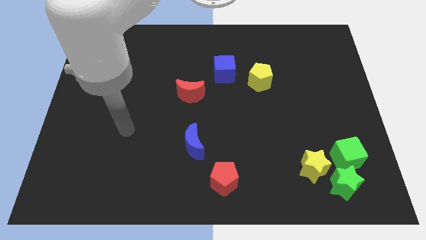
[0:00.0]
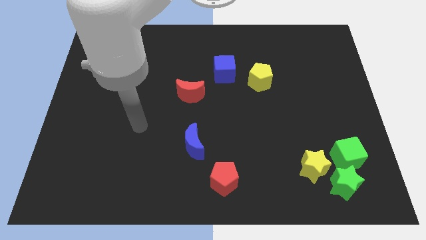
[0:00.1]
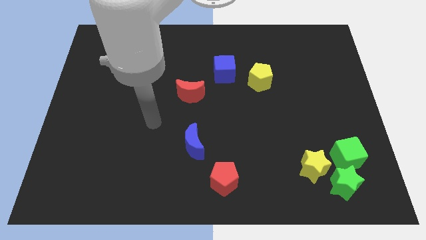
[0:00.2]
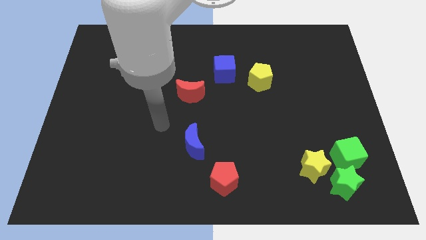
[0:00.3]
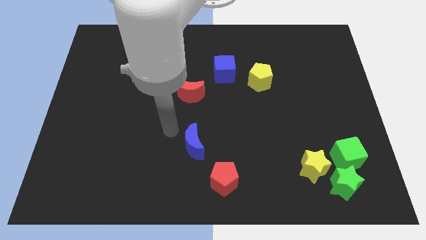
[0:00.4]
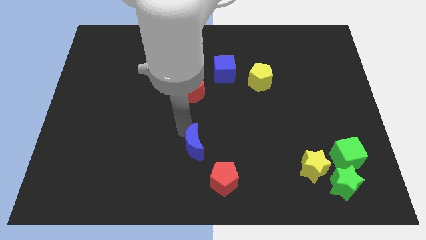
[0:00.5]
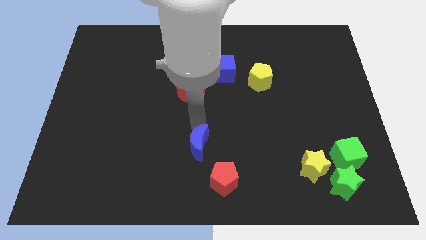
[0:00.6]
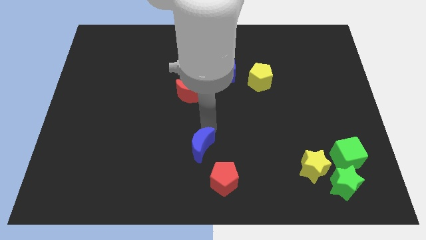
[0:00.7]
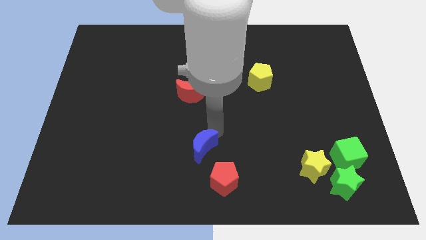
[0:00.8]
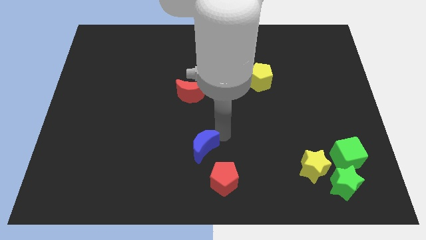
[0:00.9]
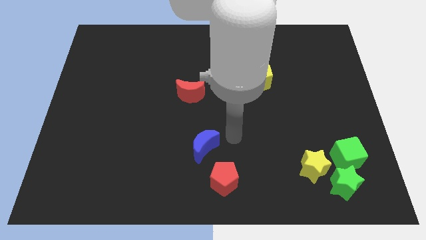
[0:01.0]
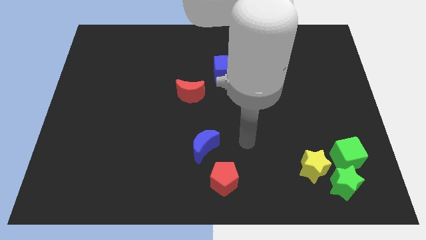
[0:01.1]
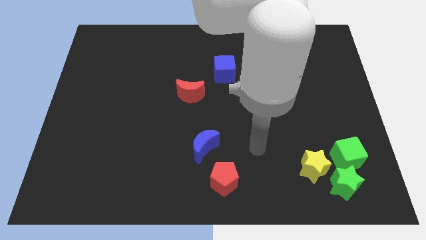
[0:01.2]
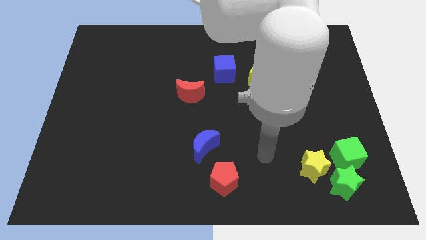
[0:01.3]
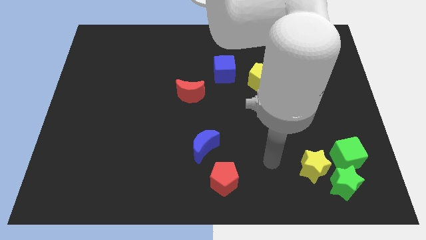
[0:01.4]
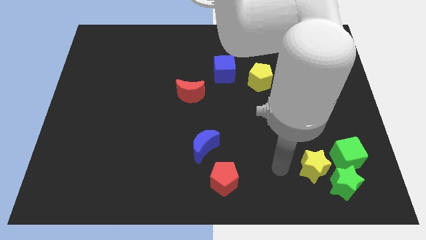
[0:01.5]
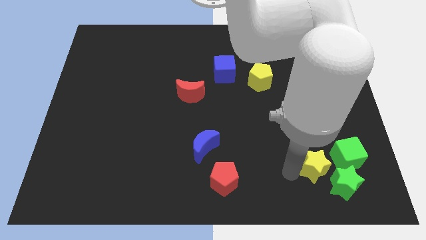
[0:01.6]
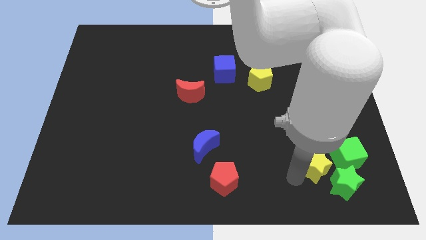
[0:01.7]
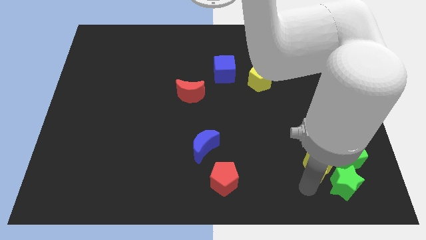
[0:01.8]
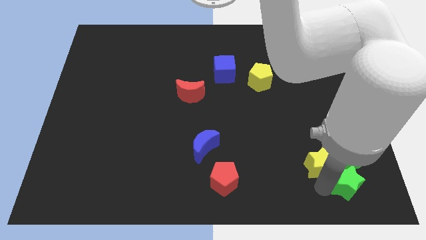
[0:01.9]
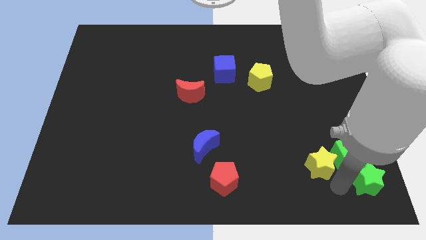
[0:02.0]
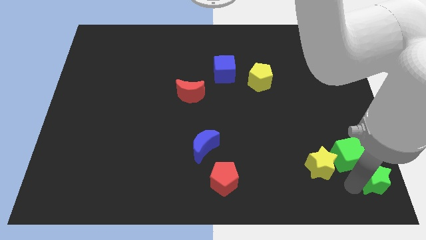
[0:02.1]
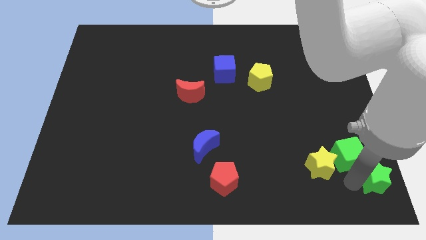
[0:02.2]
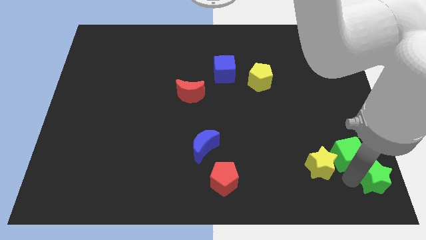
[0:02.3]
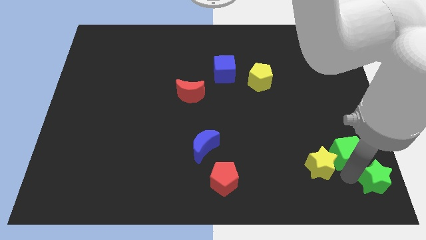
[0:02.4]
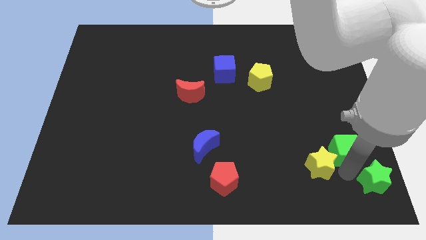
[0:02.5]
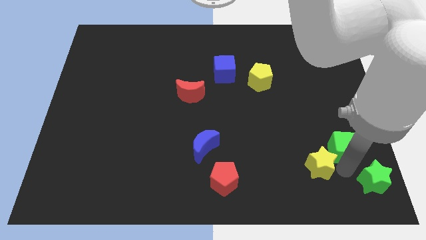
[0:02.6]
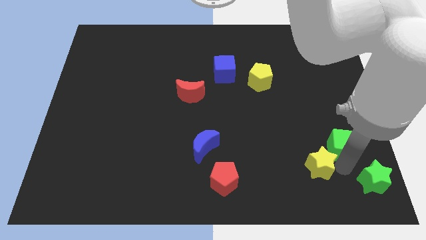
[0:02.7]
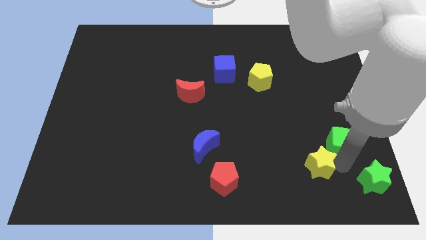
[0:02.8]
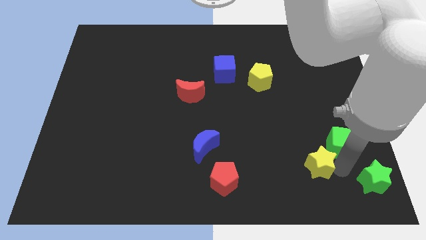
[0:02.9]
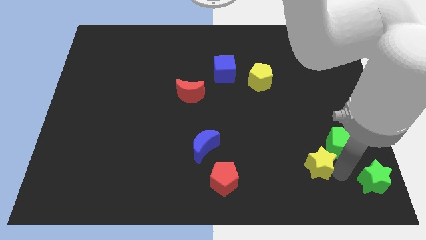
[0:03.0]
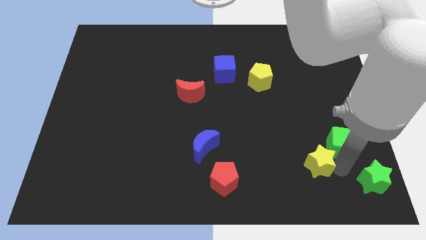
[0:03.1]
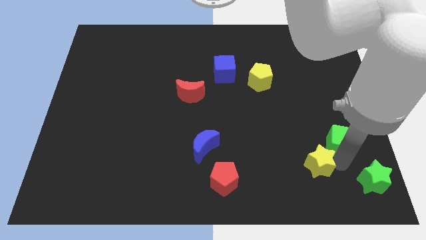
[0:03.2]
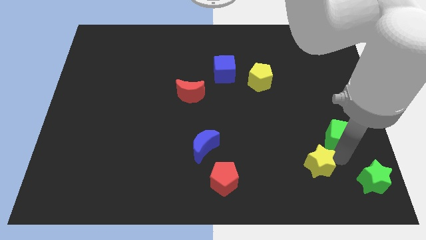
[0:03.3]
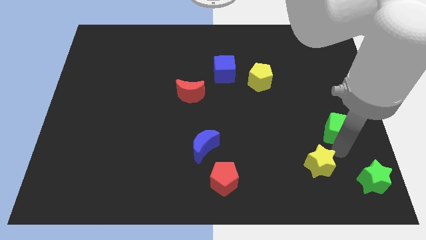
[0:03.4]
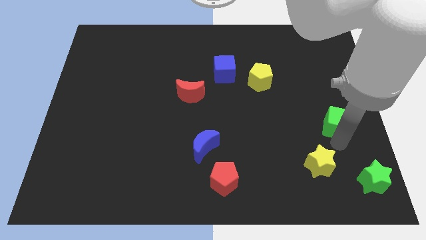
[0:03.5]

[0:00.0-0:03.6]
push the green cube a bit upwards

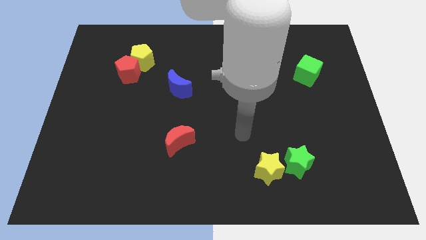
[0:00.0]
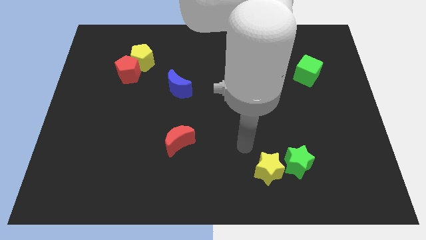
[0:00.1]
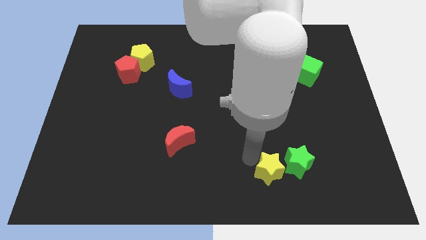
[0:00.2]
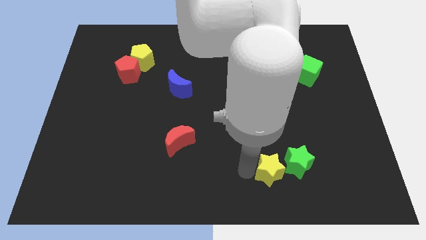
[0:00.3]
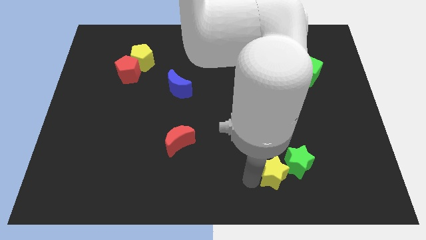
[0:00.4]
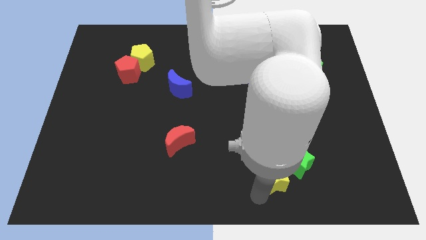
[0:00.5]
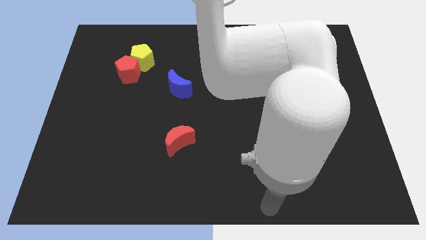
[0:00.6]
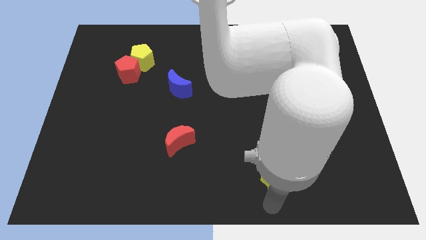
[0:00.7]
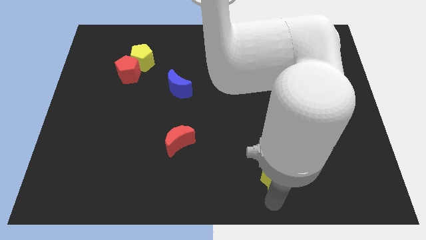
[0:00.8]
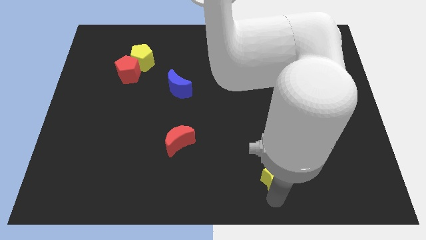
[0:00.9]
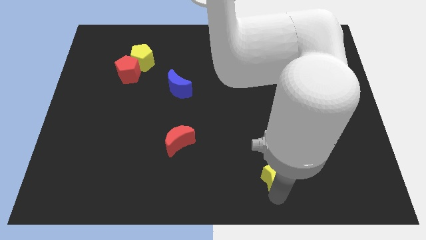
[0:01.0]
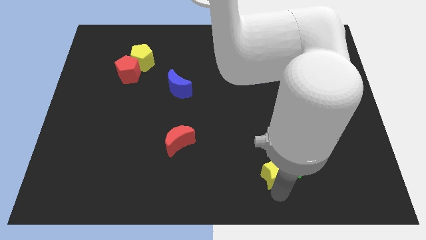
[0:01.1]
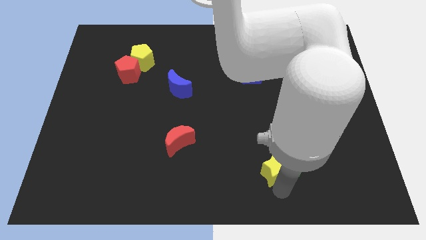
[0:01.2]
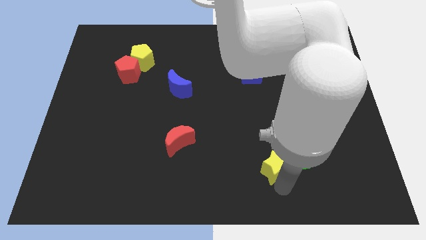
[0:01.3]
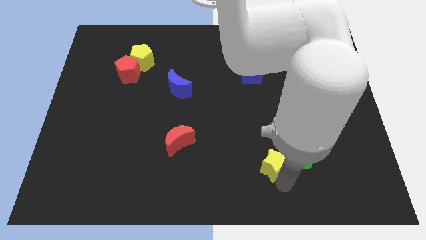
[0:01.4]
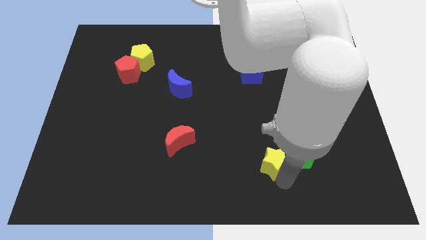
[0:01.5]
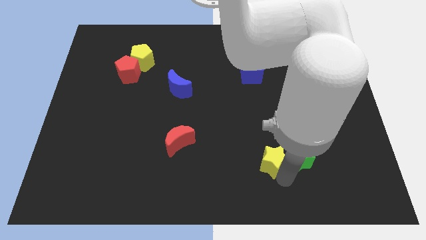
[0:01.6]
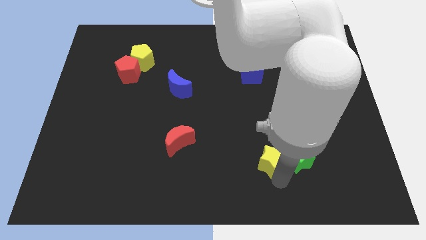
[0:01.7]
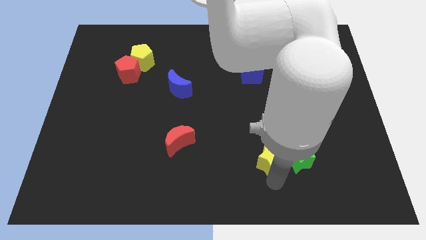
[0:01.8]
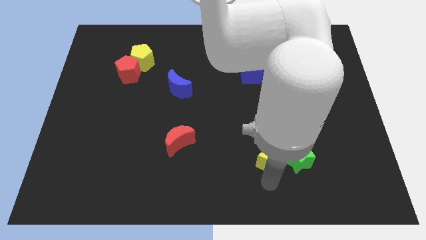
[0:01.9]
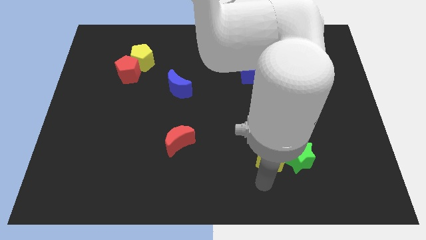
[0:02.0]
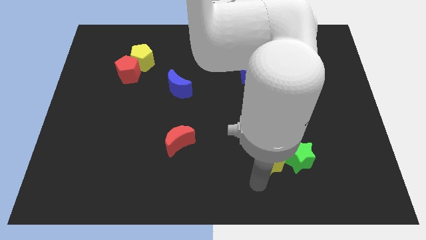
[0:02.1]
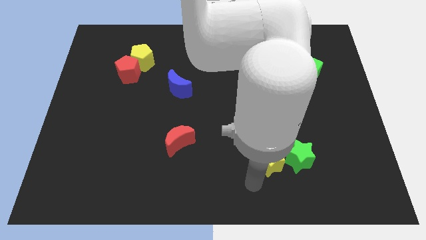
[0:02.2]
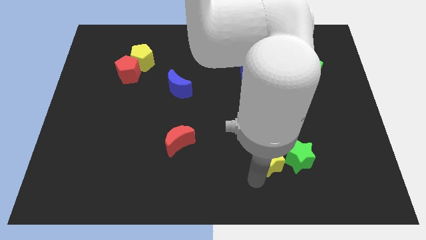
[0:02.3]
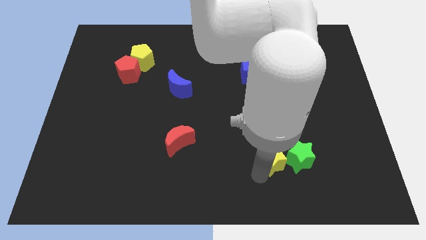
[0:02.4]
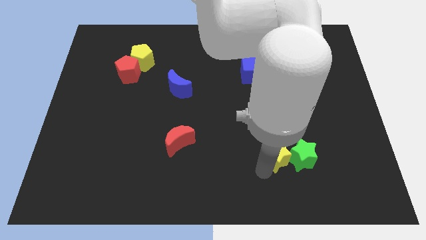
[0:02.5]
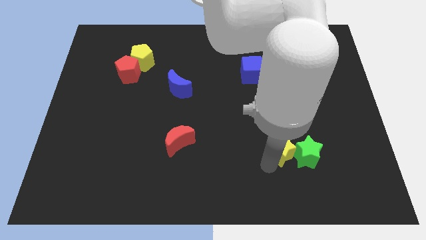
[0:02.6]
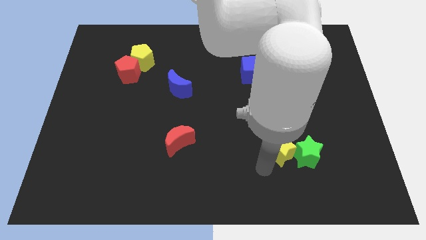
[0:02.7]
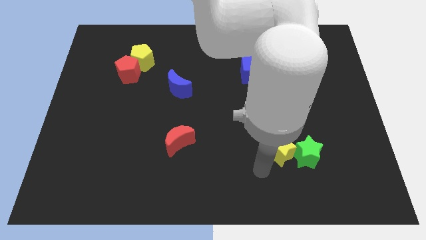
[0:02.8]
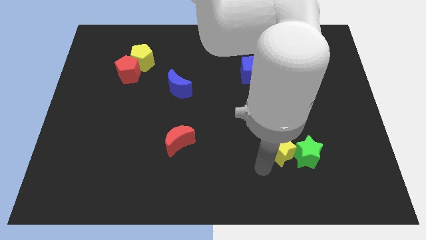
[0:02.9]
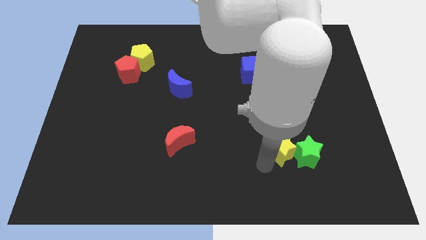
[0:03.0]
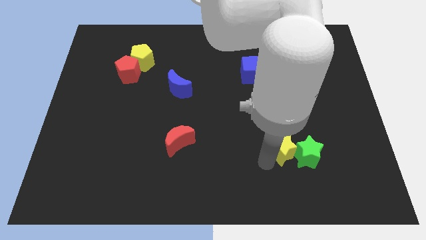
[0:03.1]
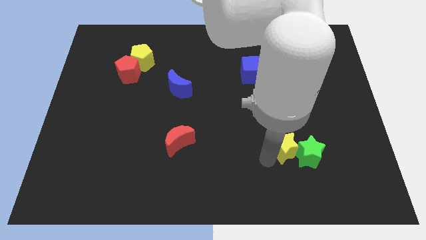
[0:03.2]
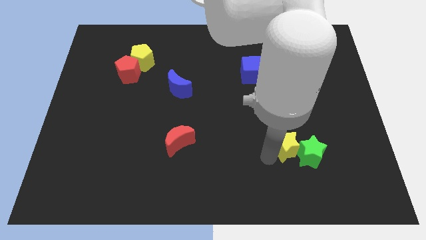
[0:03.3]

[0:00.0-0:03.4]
slide the yellow star upwards and then right slightly

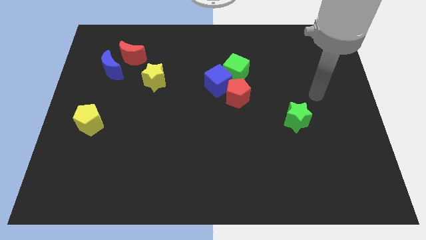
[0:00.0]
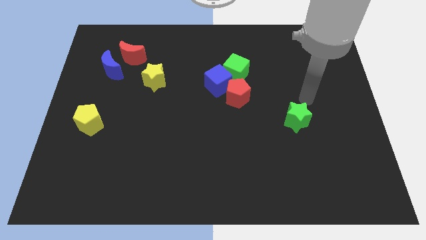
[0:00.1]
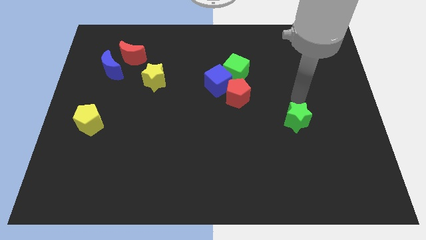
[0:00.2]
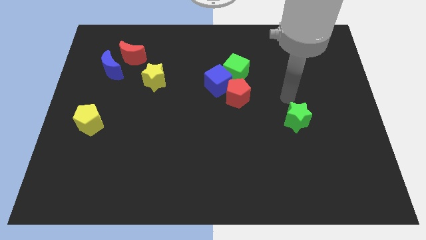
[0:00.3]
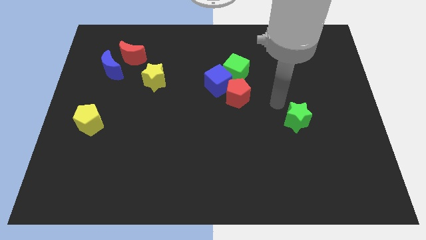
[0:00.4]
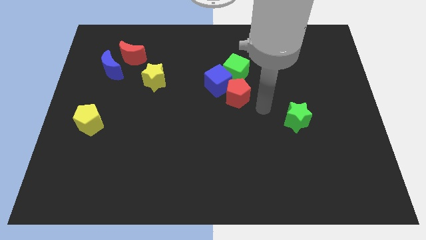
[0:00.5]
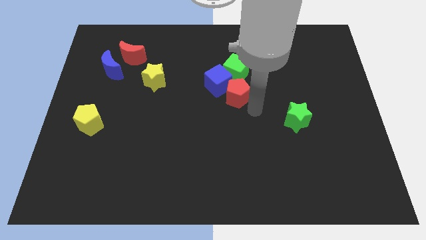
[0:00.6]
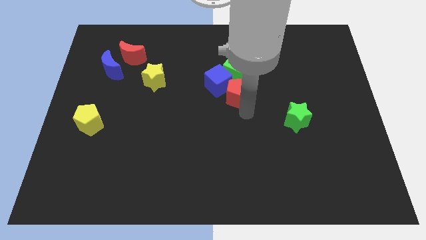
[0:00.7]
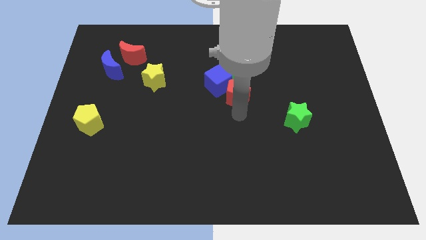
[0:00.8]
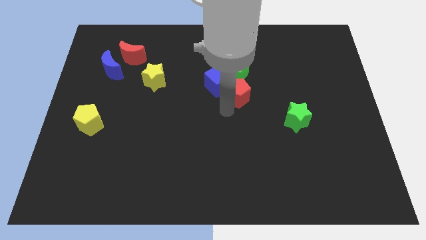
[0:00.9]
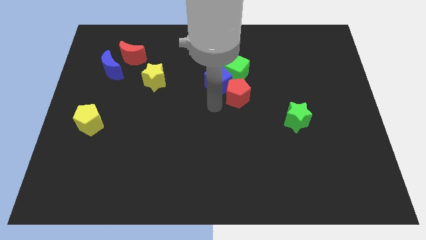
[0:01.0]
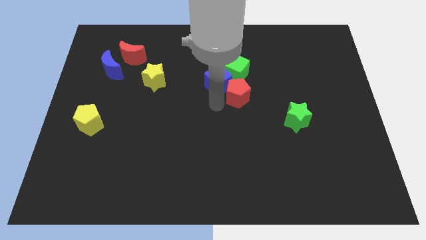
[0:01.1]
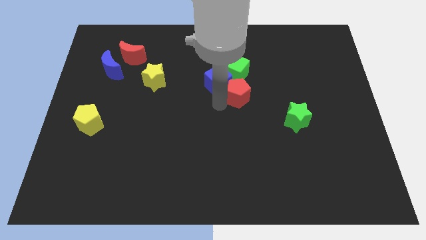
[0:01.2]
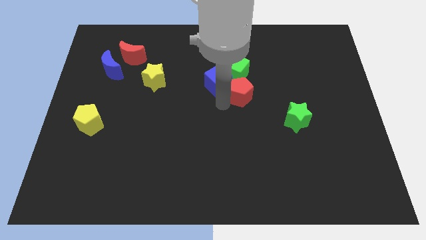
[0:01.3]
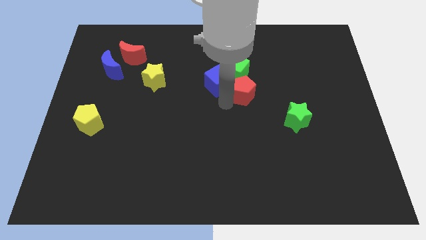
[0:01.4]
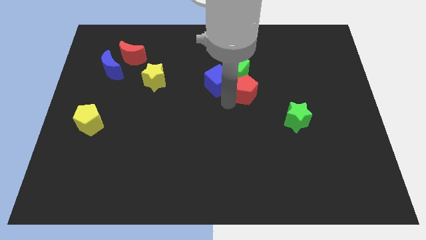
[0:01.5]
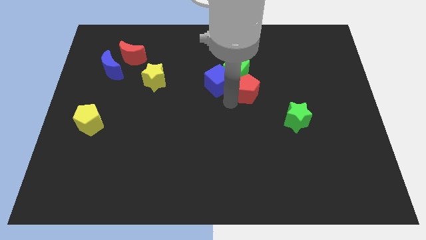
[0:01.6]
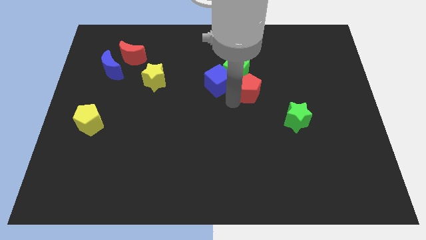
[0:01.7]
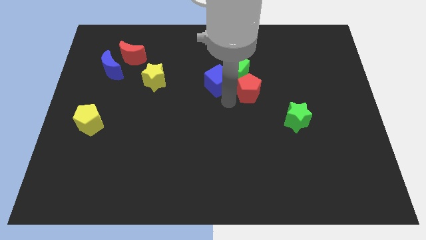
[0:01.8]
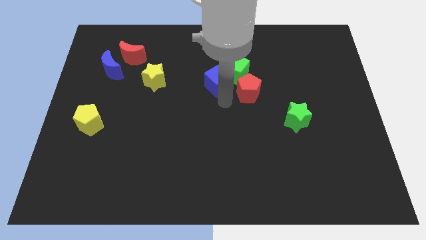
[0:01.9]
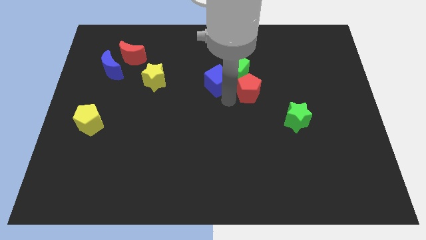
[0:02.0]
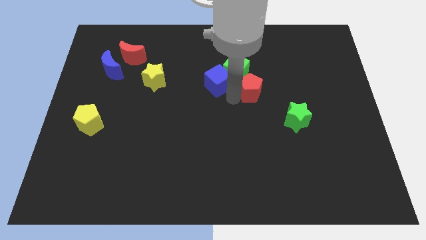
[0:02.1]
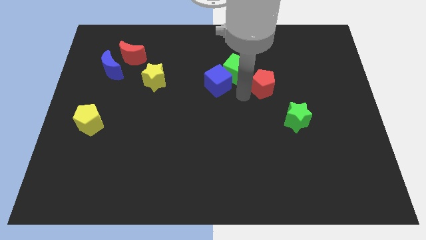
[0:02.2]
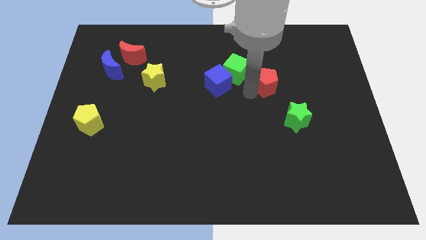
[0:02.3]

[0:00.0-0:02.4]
slightly move the red pentagon diagonally upwards and right
